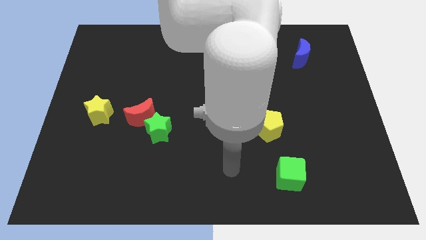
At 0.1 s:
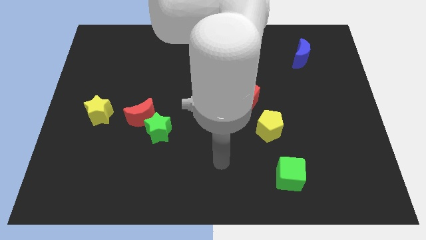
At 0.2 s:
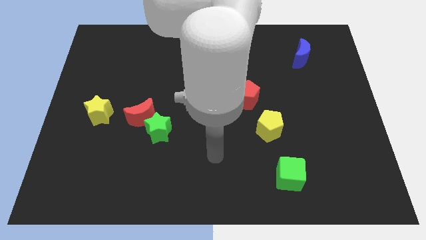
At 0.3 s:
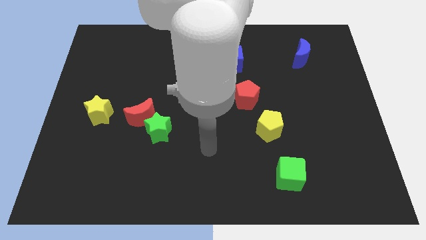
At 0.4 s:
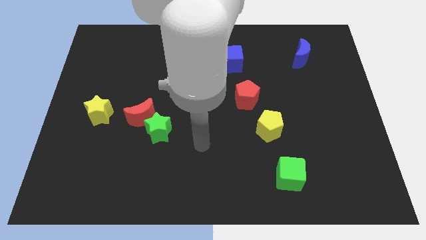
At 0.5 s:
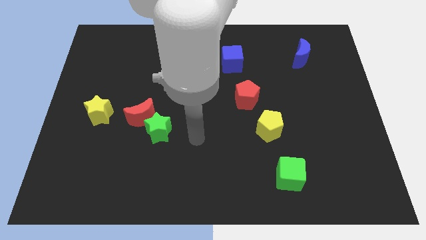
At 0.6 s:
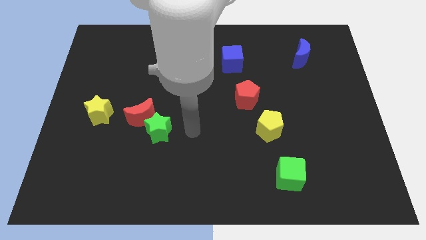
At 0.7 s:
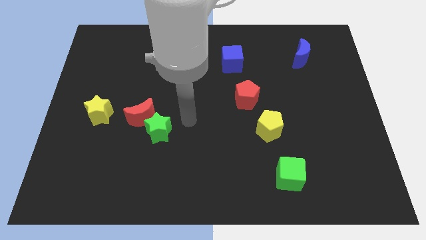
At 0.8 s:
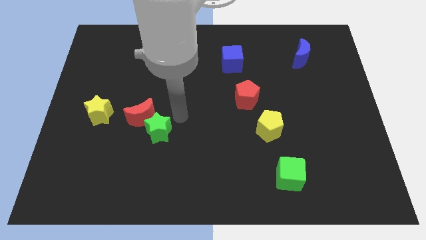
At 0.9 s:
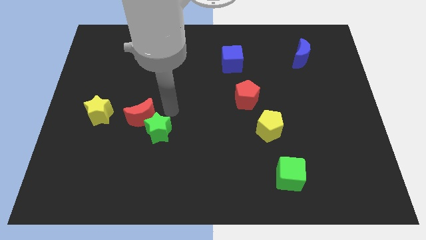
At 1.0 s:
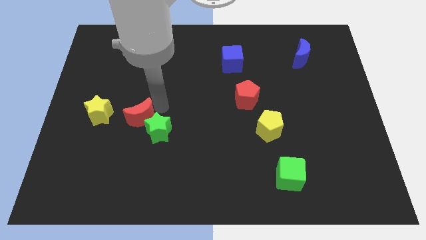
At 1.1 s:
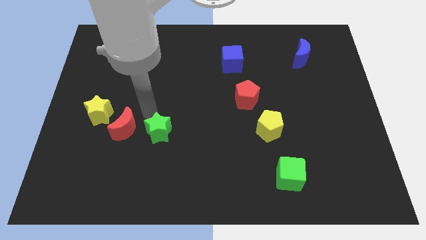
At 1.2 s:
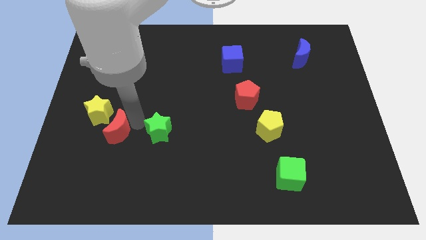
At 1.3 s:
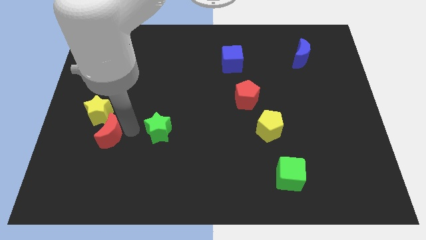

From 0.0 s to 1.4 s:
separate the green star from the red moon

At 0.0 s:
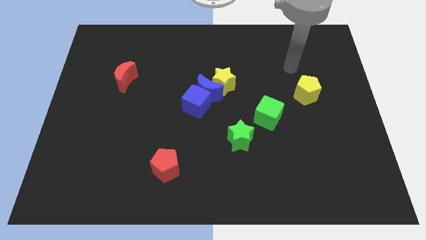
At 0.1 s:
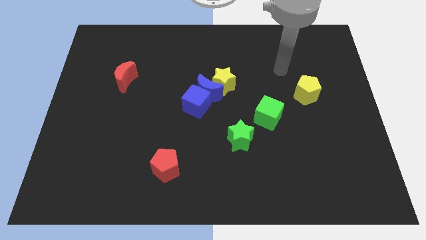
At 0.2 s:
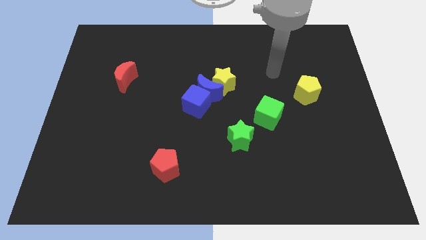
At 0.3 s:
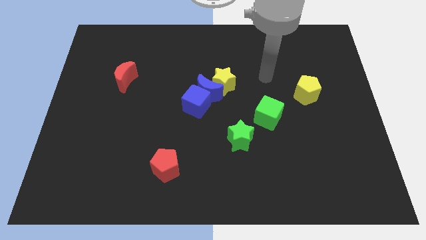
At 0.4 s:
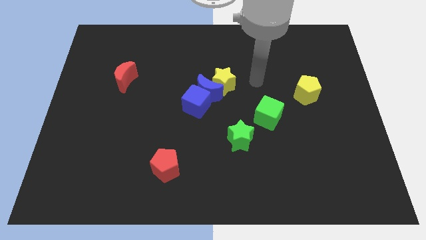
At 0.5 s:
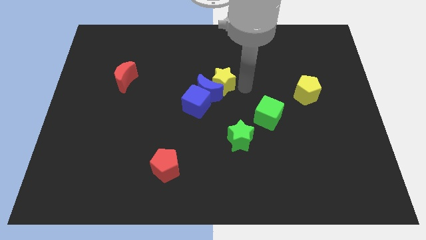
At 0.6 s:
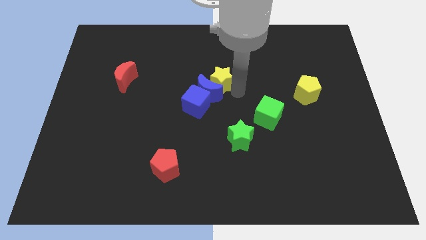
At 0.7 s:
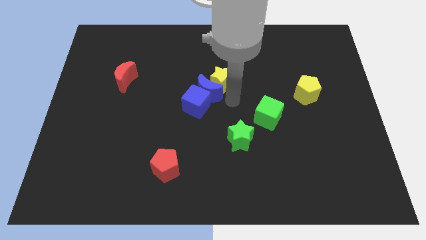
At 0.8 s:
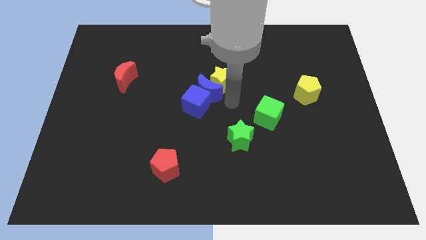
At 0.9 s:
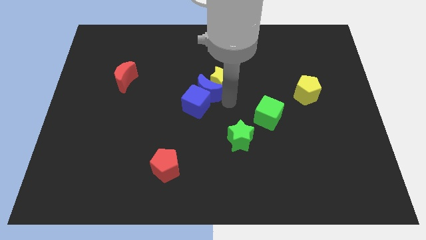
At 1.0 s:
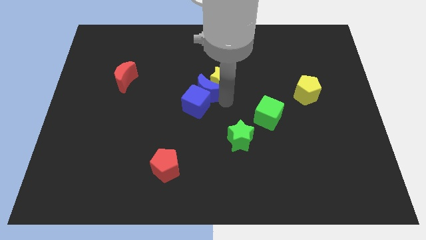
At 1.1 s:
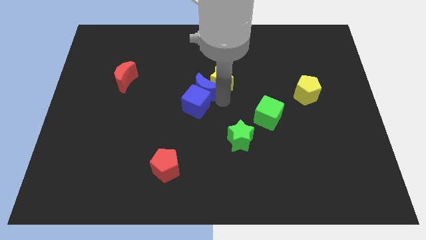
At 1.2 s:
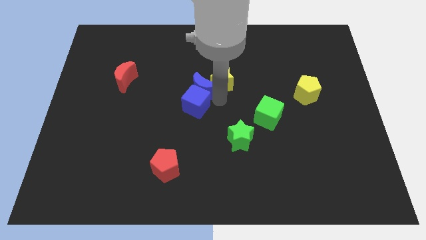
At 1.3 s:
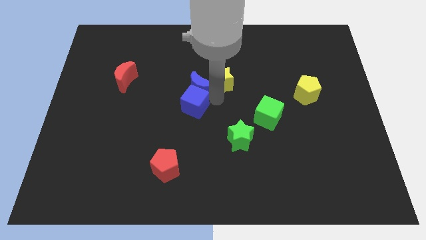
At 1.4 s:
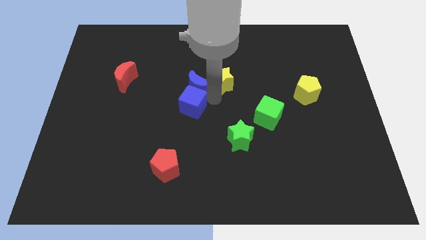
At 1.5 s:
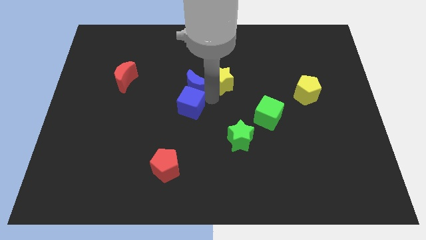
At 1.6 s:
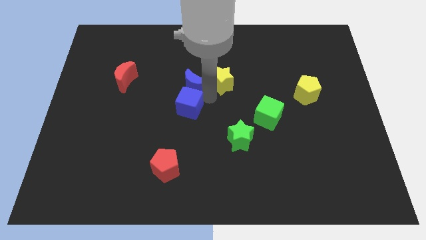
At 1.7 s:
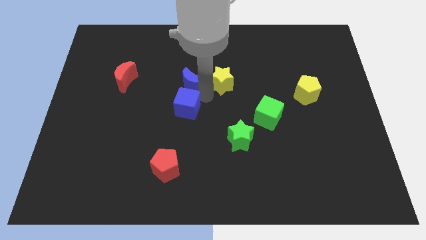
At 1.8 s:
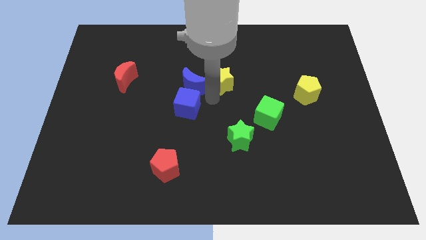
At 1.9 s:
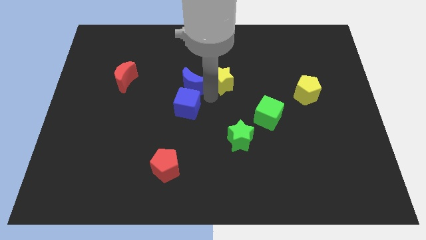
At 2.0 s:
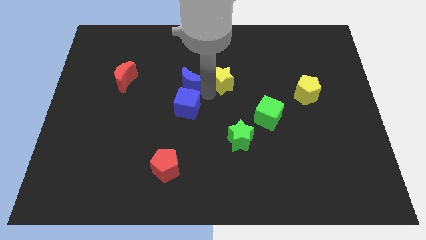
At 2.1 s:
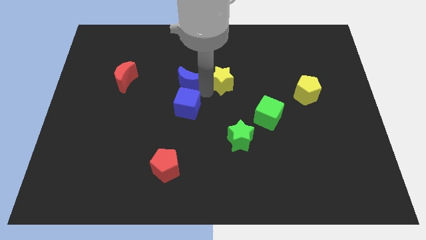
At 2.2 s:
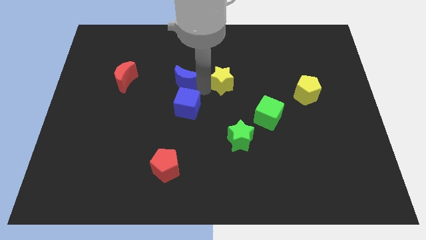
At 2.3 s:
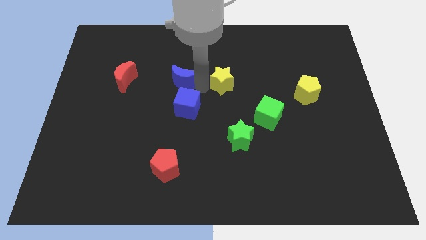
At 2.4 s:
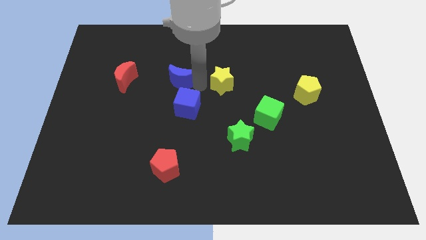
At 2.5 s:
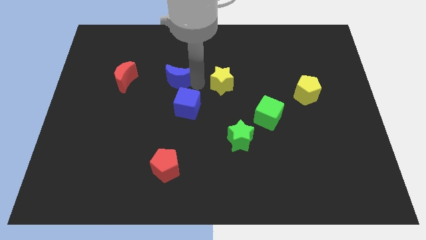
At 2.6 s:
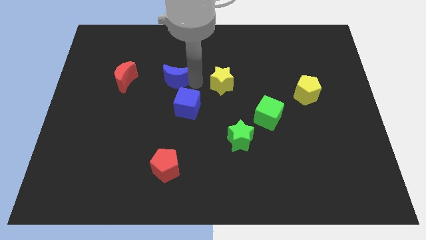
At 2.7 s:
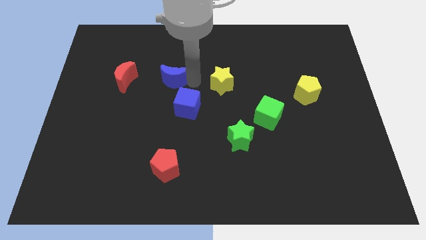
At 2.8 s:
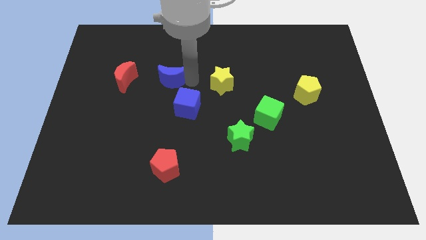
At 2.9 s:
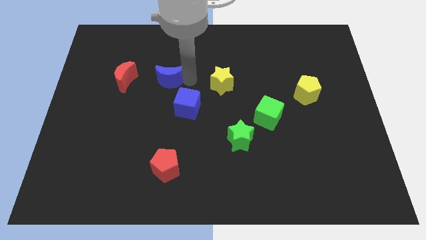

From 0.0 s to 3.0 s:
separate the blue moon from the blue cube and yellow star

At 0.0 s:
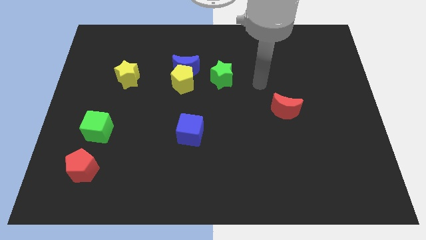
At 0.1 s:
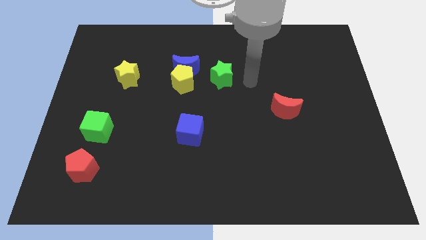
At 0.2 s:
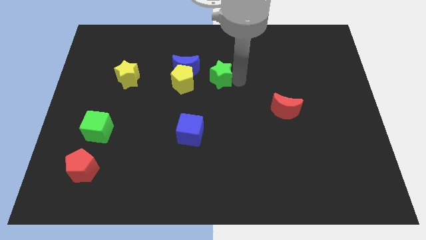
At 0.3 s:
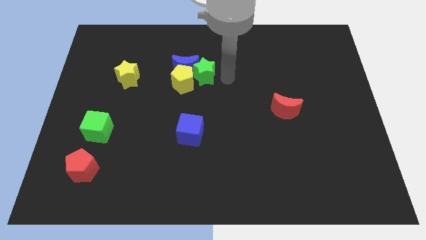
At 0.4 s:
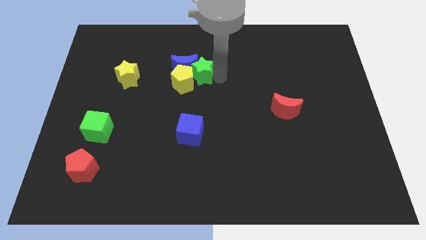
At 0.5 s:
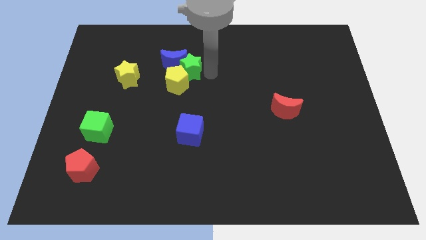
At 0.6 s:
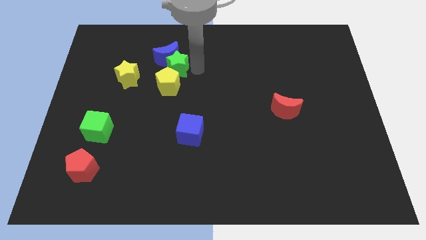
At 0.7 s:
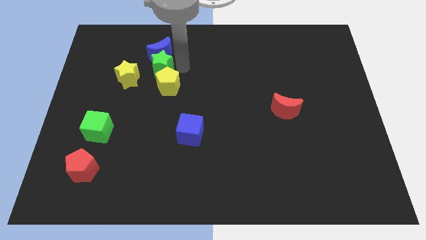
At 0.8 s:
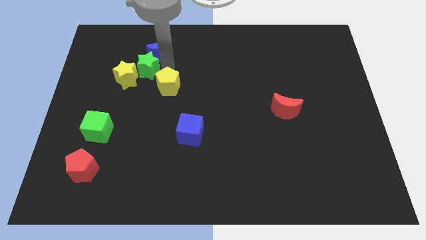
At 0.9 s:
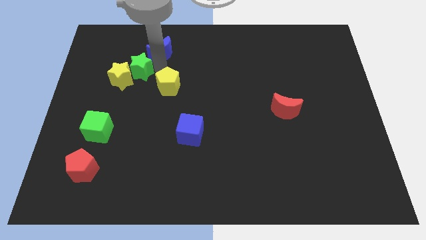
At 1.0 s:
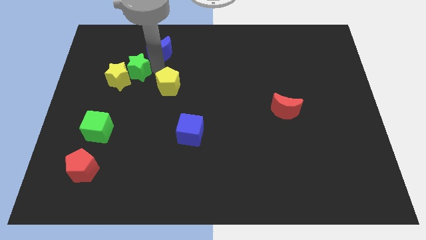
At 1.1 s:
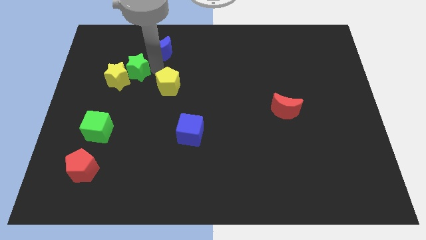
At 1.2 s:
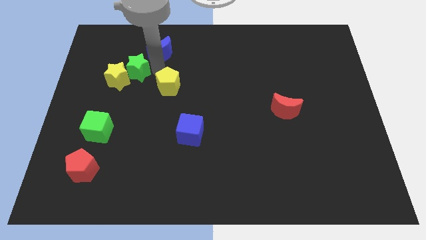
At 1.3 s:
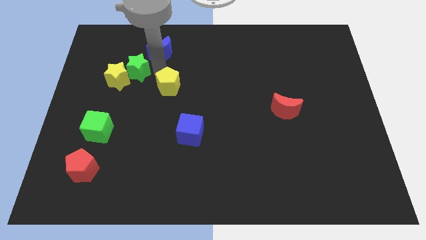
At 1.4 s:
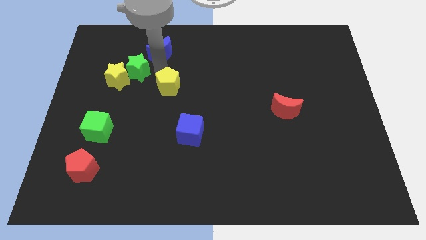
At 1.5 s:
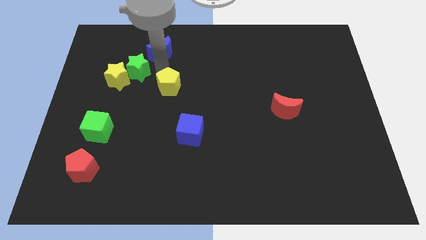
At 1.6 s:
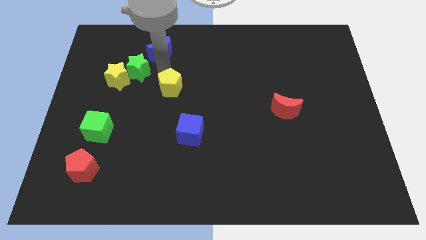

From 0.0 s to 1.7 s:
separate the yellow pentagon from the blue moon and green star

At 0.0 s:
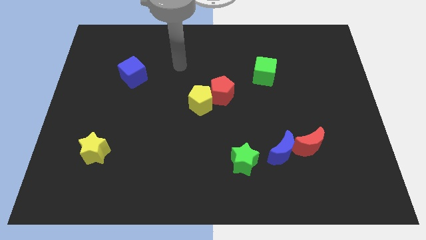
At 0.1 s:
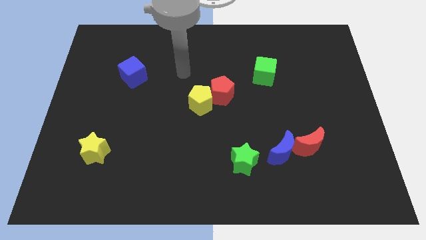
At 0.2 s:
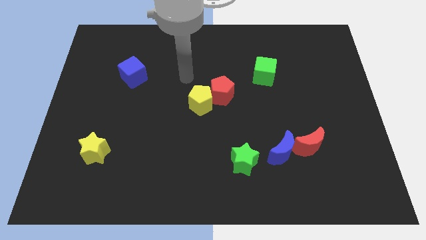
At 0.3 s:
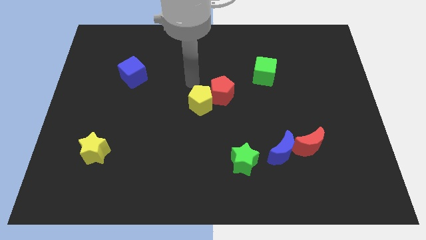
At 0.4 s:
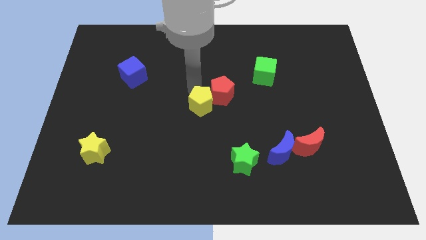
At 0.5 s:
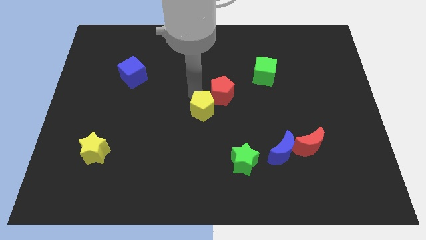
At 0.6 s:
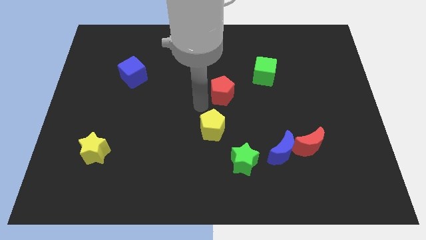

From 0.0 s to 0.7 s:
pull the red pentagon apart from the yellow pentagon

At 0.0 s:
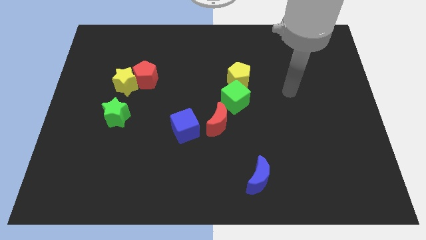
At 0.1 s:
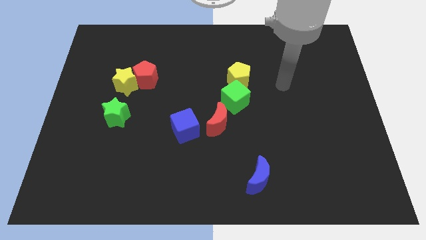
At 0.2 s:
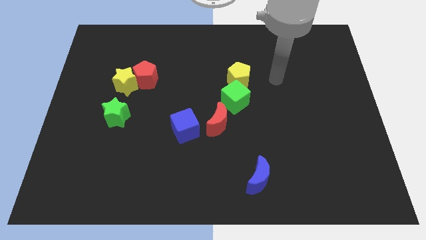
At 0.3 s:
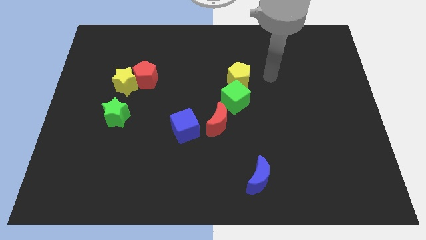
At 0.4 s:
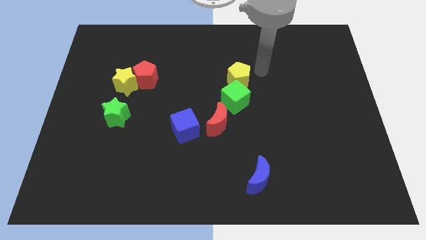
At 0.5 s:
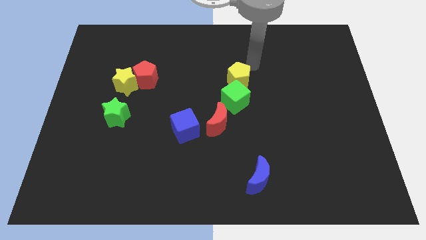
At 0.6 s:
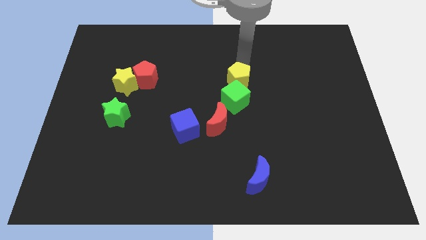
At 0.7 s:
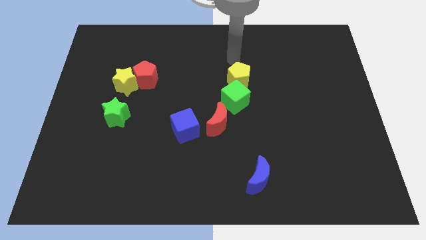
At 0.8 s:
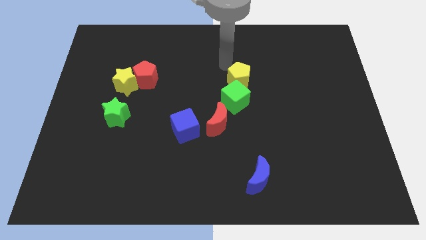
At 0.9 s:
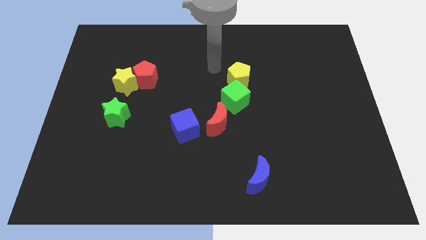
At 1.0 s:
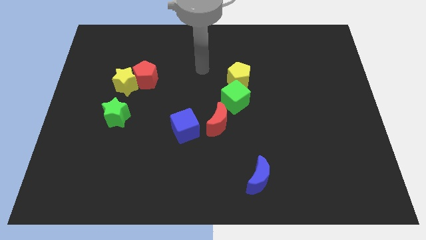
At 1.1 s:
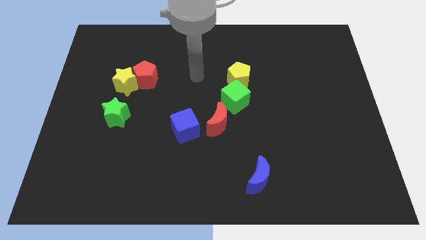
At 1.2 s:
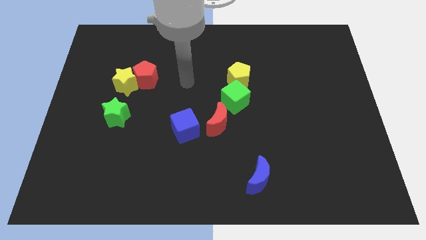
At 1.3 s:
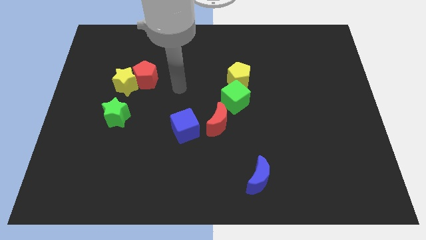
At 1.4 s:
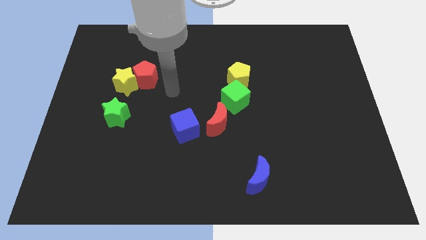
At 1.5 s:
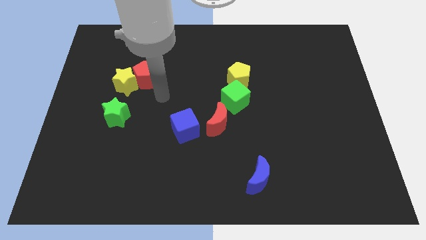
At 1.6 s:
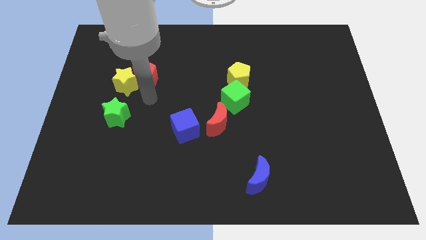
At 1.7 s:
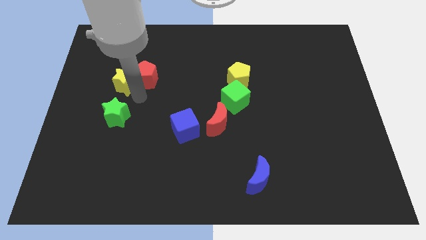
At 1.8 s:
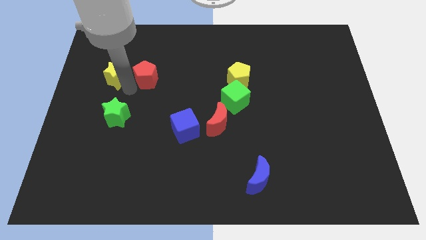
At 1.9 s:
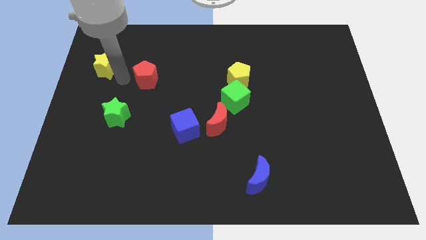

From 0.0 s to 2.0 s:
separate the red pentagon from the yellow star

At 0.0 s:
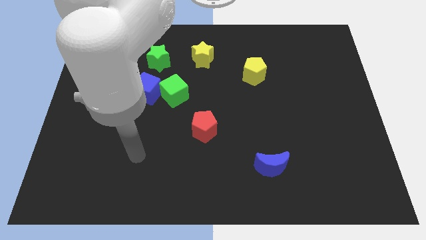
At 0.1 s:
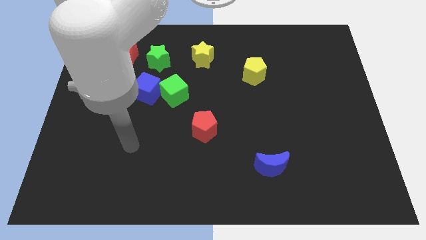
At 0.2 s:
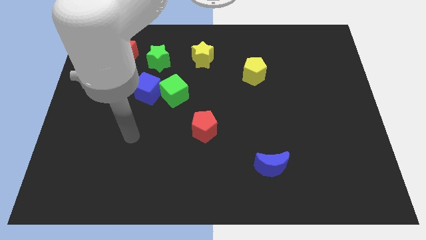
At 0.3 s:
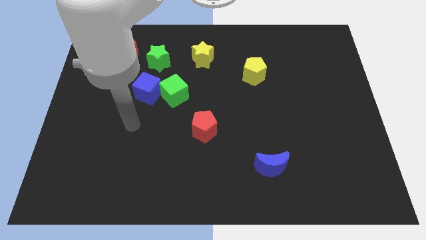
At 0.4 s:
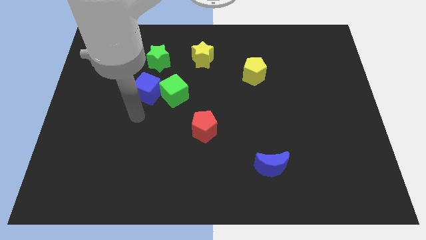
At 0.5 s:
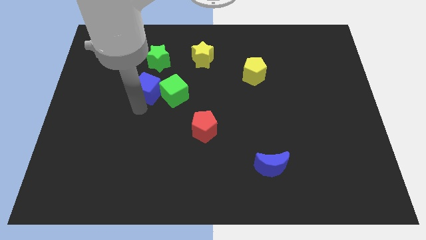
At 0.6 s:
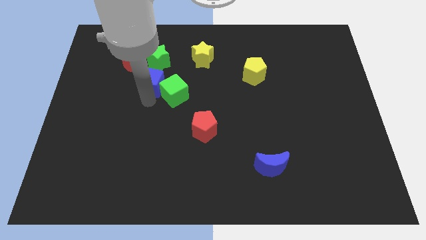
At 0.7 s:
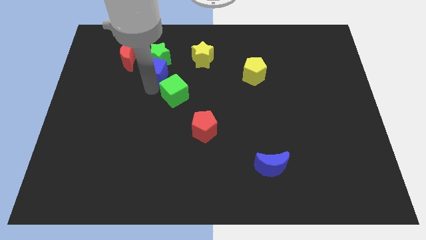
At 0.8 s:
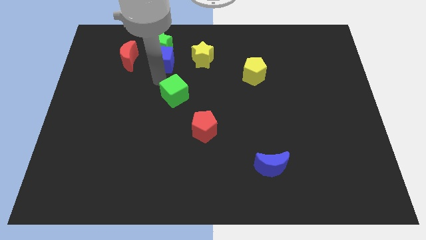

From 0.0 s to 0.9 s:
separate the green cube from the blue cube
